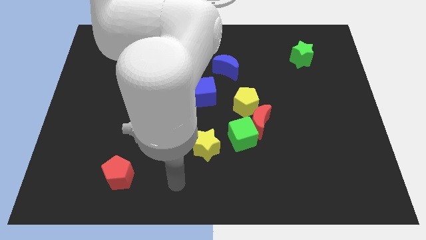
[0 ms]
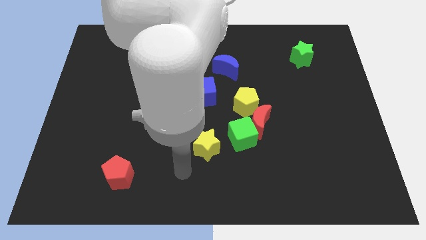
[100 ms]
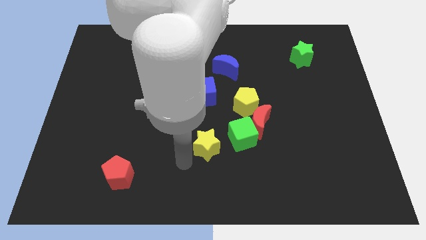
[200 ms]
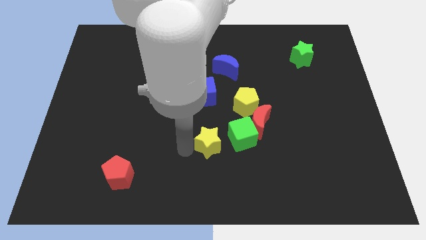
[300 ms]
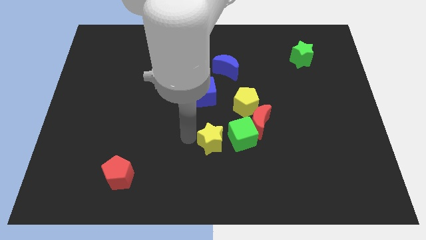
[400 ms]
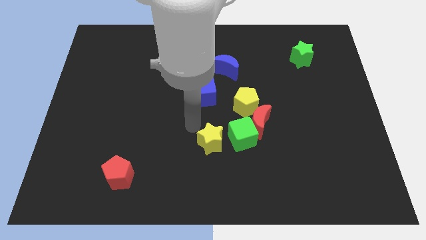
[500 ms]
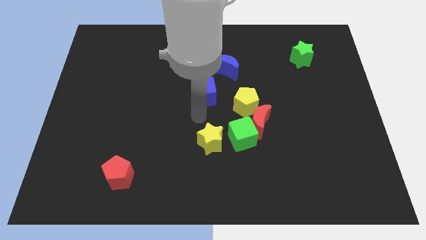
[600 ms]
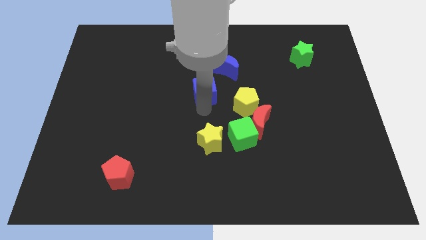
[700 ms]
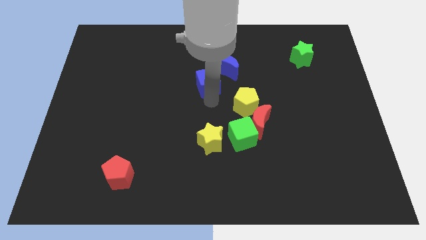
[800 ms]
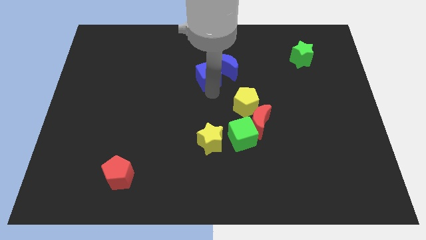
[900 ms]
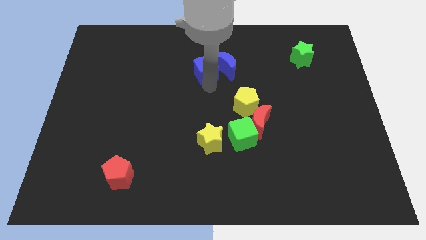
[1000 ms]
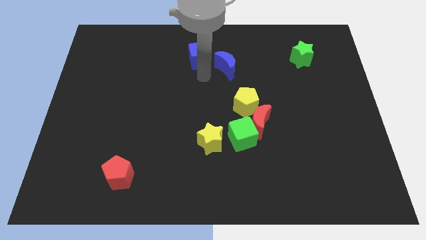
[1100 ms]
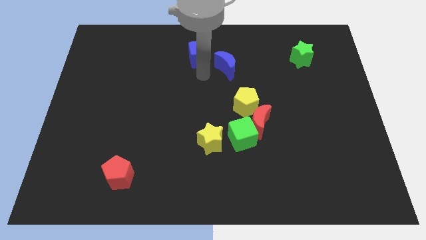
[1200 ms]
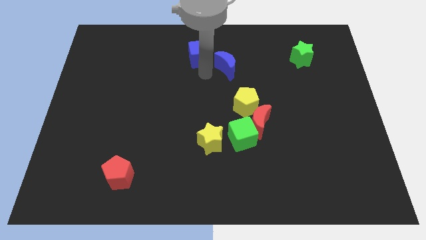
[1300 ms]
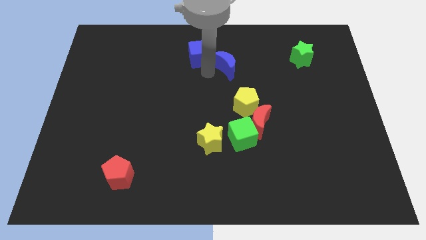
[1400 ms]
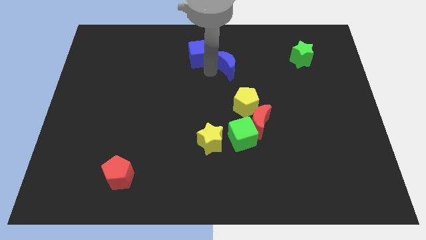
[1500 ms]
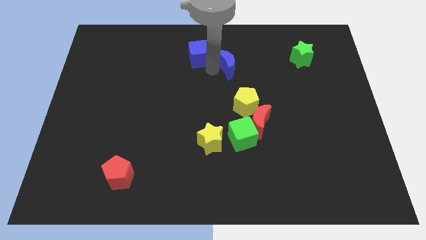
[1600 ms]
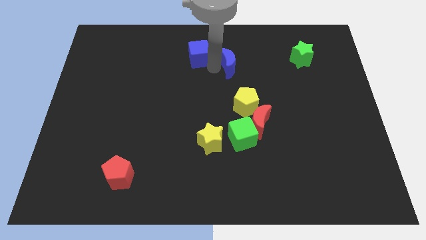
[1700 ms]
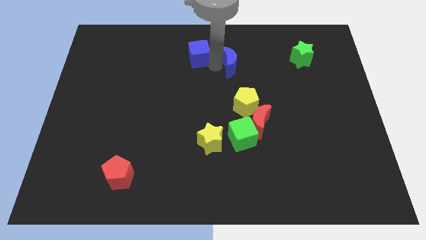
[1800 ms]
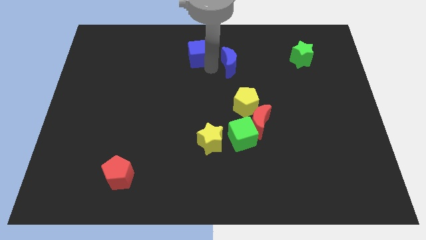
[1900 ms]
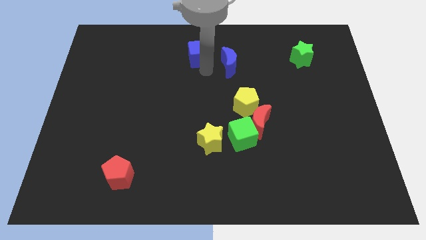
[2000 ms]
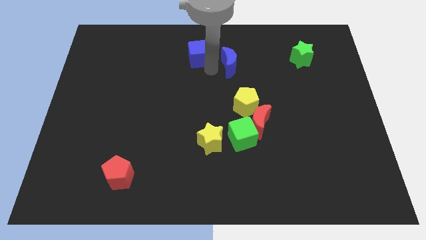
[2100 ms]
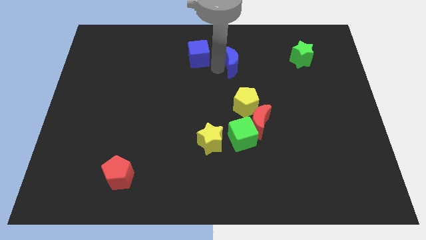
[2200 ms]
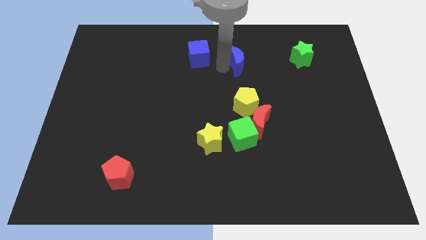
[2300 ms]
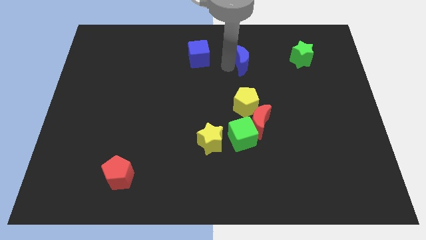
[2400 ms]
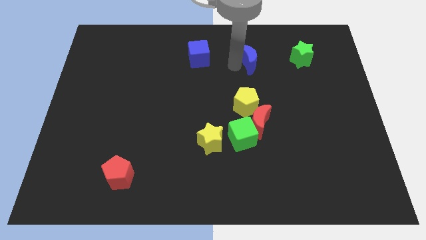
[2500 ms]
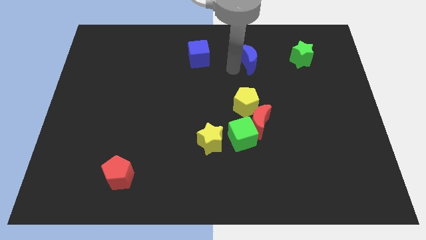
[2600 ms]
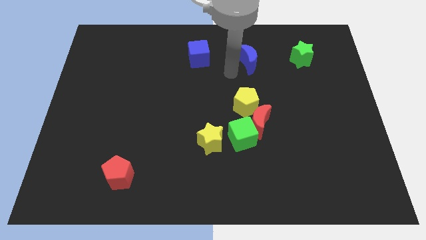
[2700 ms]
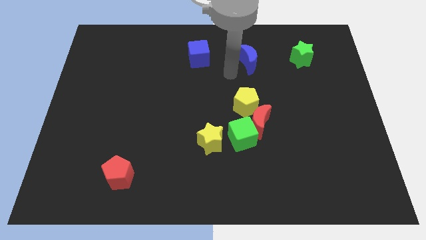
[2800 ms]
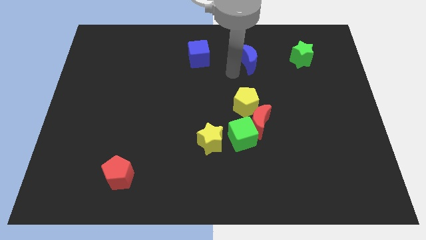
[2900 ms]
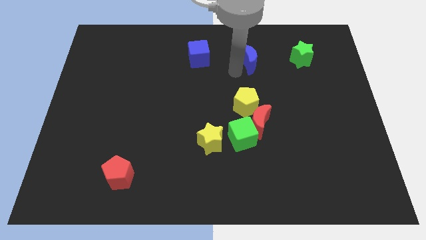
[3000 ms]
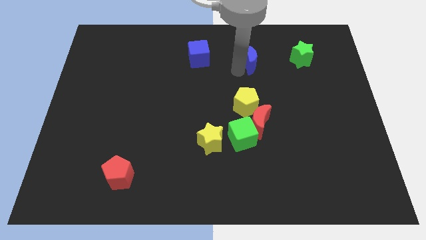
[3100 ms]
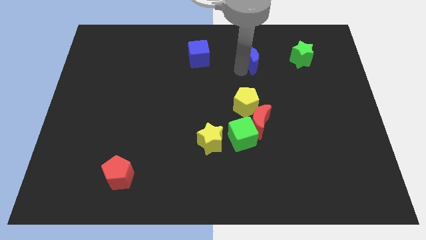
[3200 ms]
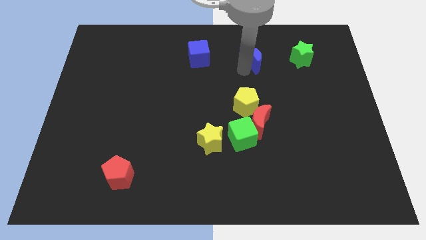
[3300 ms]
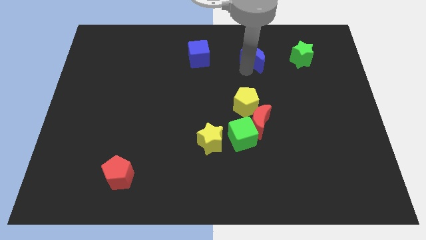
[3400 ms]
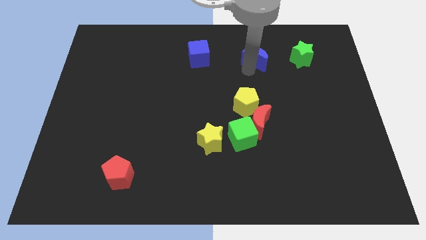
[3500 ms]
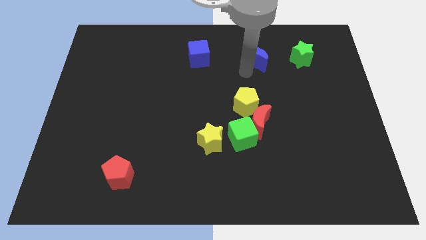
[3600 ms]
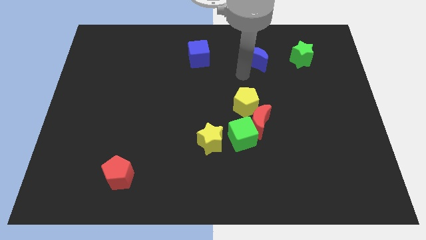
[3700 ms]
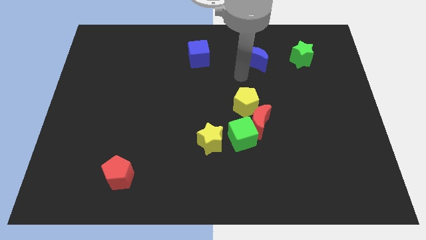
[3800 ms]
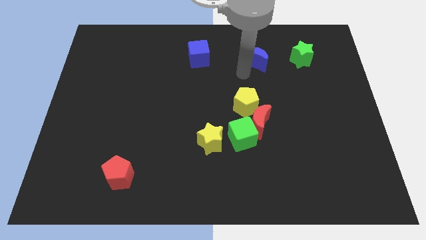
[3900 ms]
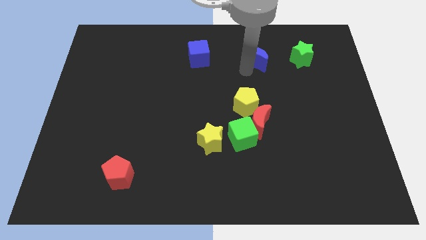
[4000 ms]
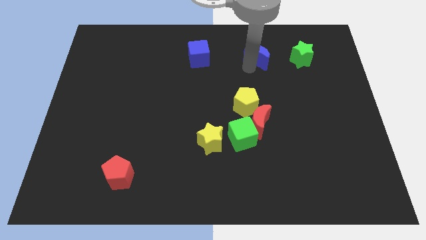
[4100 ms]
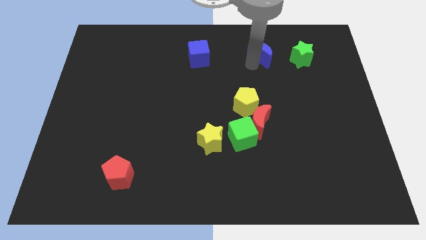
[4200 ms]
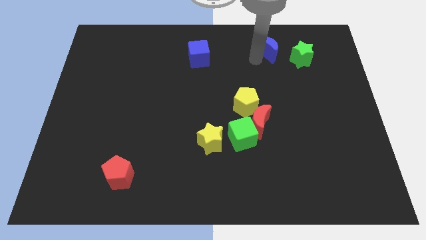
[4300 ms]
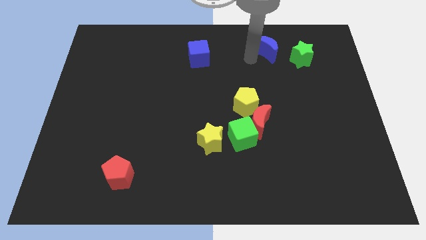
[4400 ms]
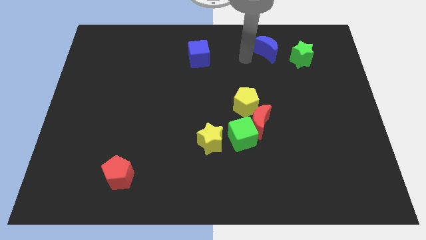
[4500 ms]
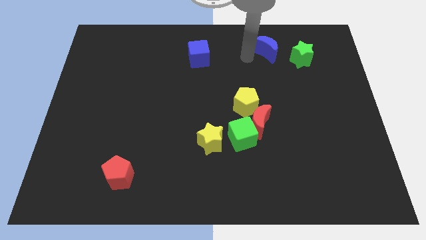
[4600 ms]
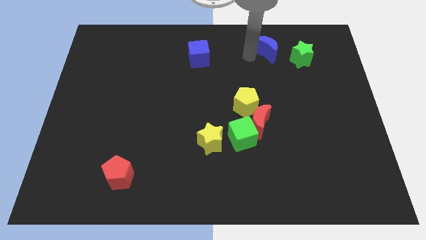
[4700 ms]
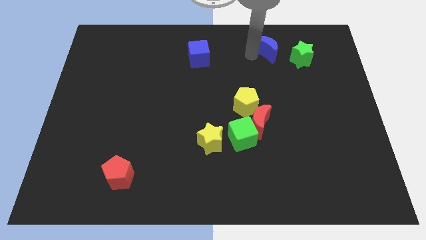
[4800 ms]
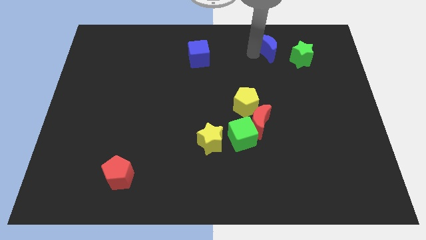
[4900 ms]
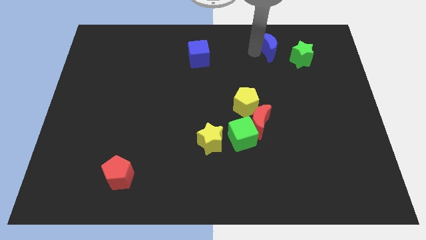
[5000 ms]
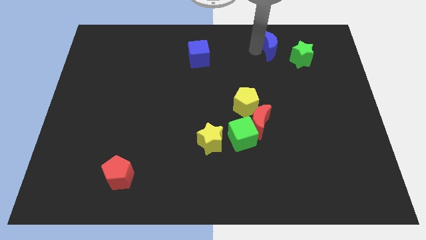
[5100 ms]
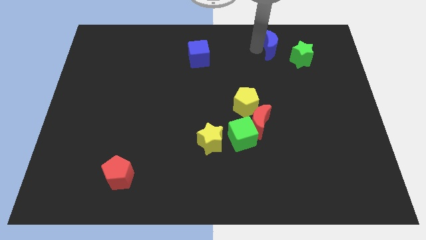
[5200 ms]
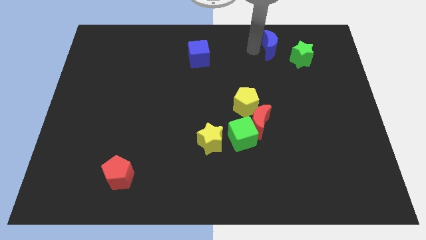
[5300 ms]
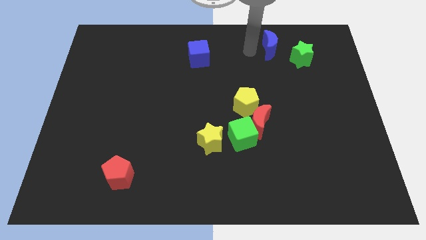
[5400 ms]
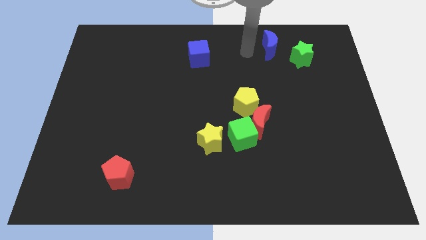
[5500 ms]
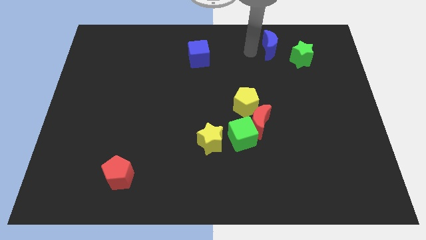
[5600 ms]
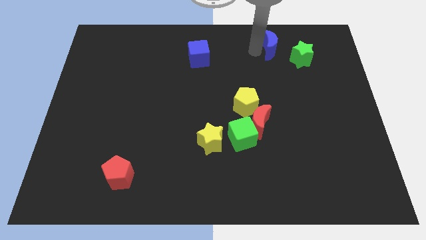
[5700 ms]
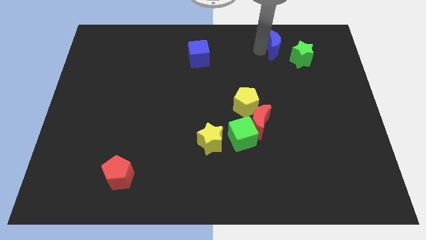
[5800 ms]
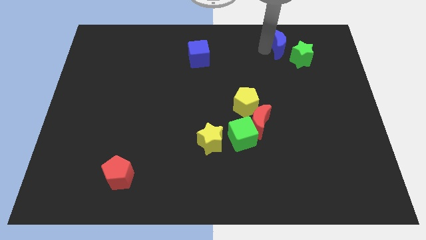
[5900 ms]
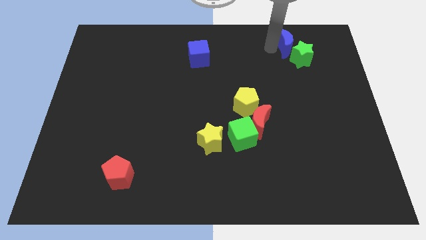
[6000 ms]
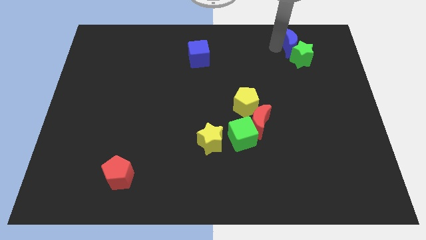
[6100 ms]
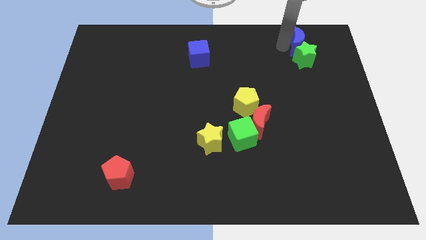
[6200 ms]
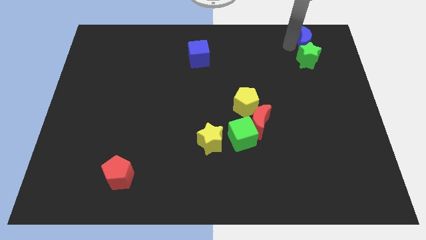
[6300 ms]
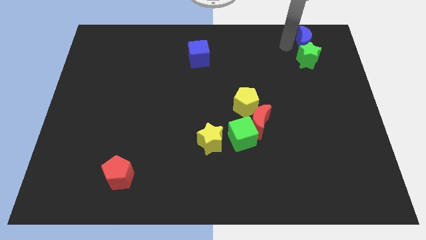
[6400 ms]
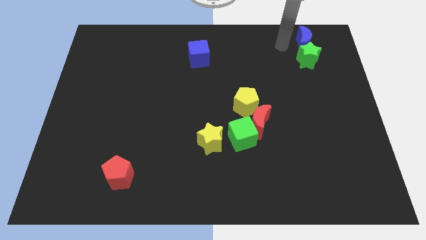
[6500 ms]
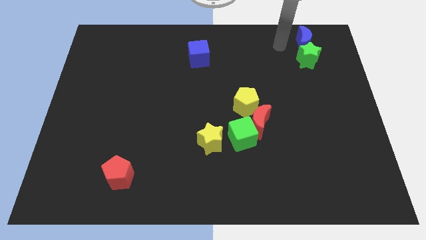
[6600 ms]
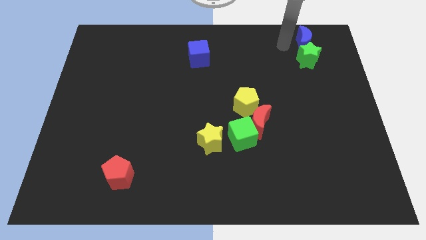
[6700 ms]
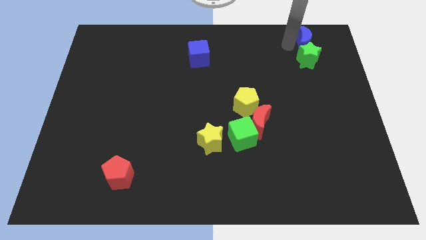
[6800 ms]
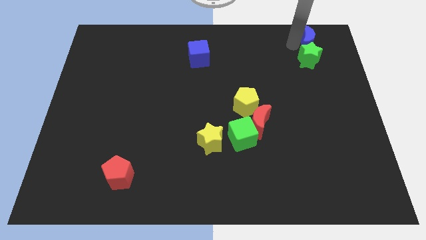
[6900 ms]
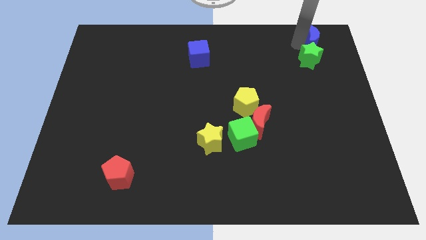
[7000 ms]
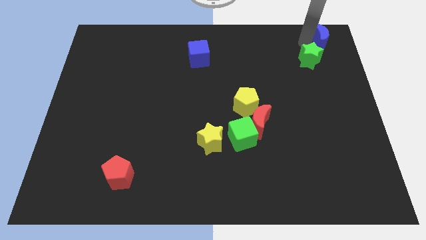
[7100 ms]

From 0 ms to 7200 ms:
put the blue moon to the upper right corner
